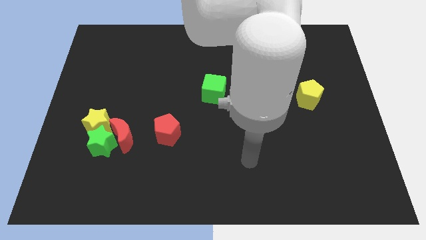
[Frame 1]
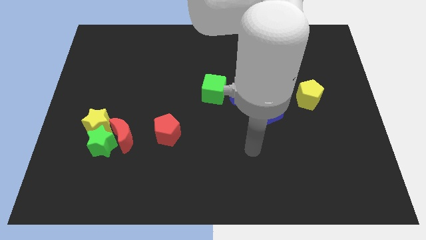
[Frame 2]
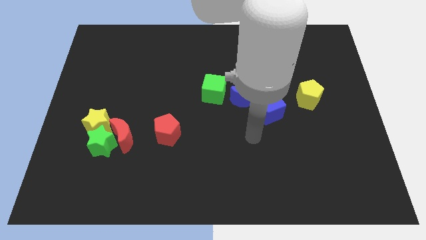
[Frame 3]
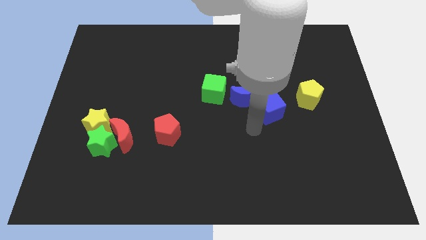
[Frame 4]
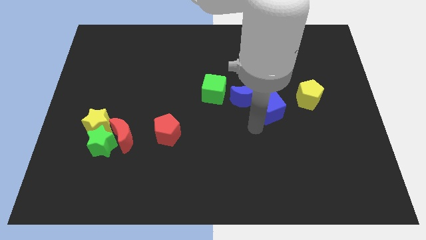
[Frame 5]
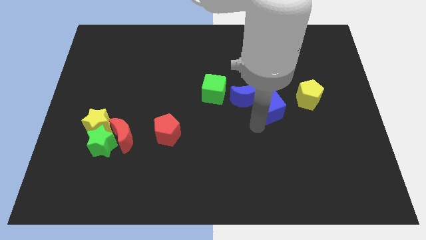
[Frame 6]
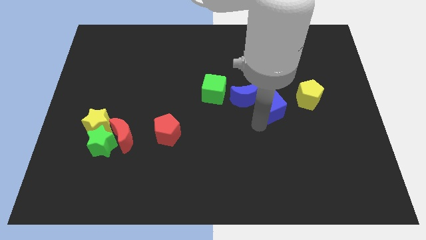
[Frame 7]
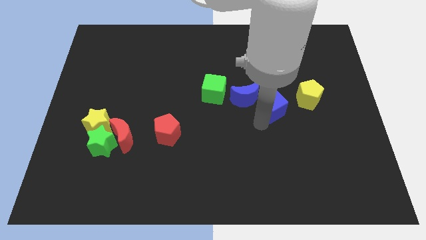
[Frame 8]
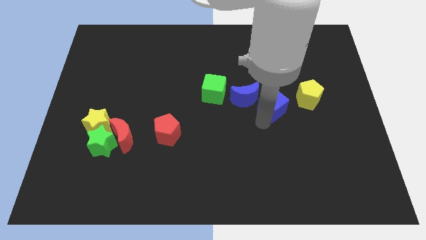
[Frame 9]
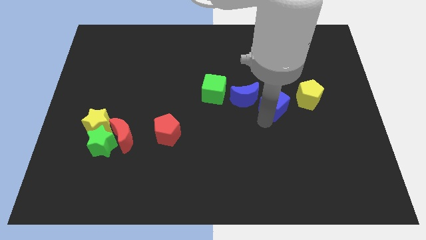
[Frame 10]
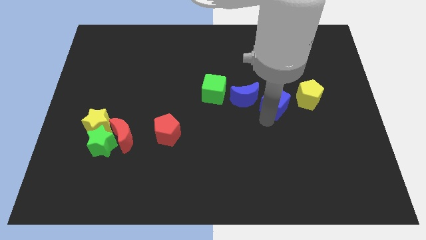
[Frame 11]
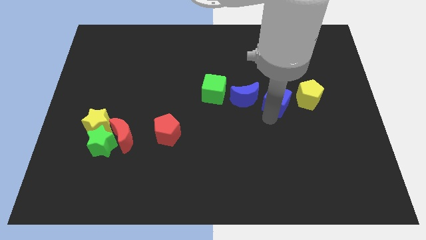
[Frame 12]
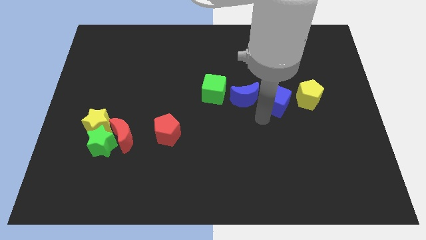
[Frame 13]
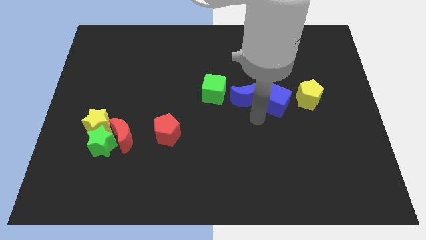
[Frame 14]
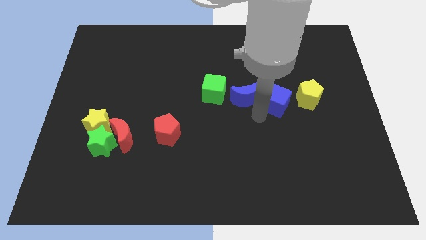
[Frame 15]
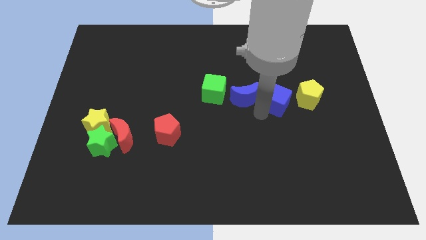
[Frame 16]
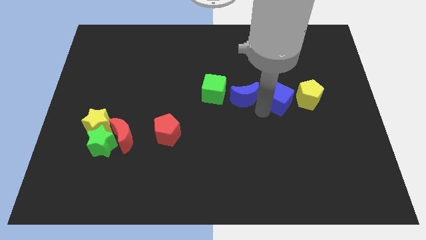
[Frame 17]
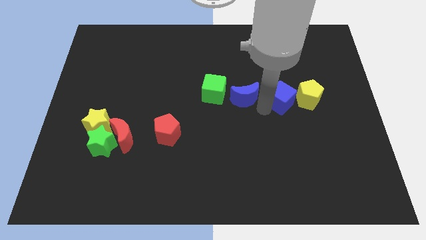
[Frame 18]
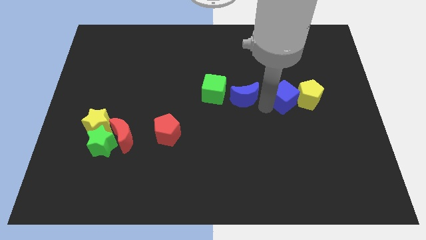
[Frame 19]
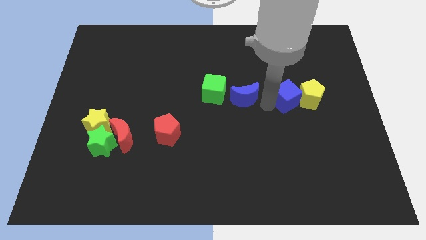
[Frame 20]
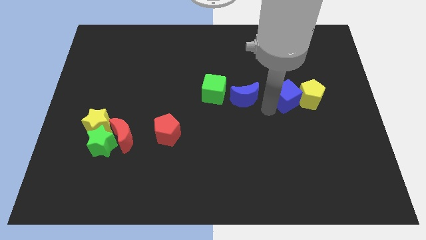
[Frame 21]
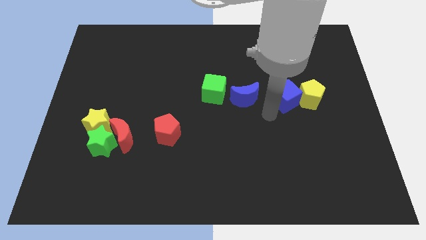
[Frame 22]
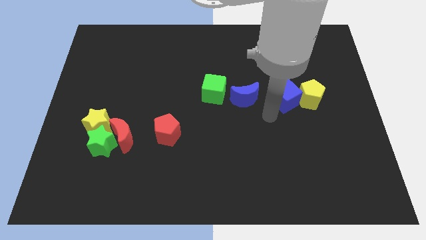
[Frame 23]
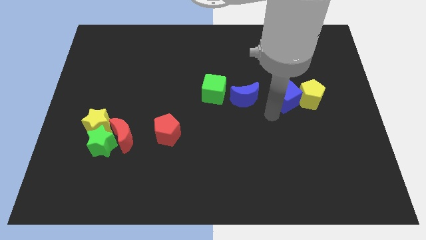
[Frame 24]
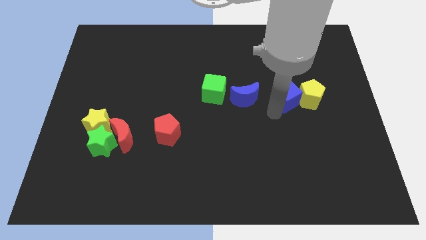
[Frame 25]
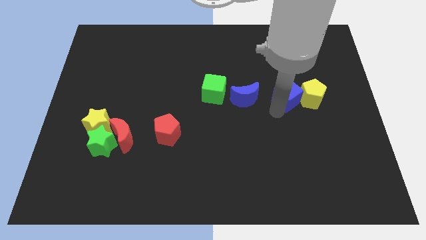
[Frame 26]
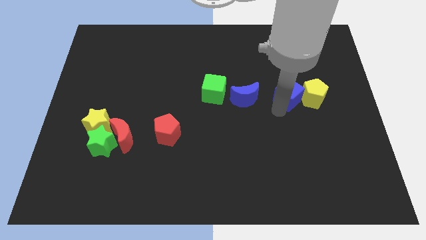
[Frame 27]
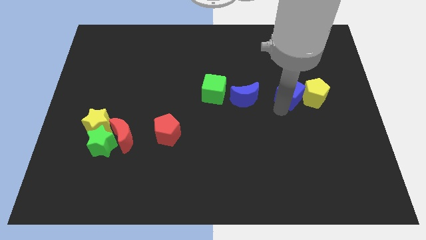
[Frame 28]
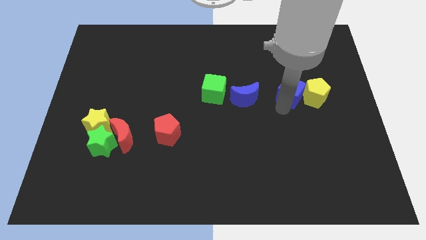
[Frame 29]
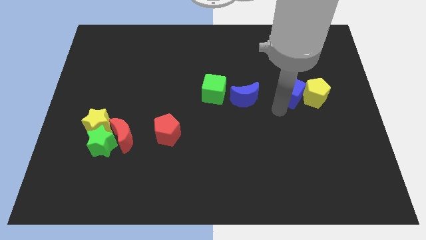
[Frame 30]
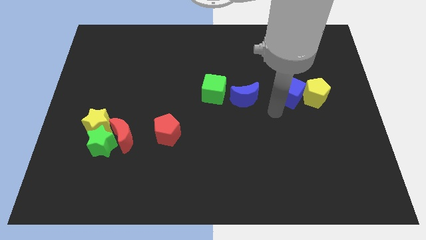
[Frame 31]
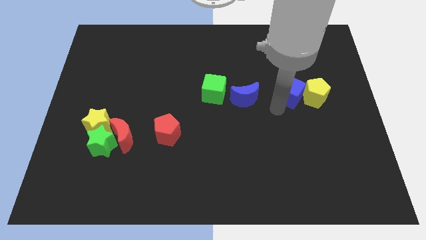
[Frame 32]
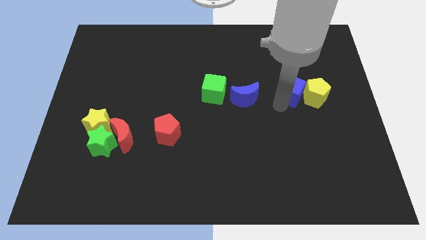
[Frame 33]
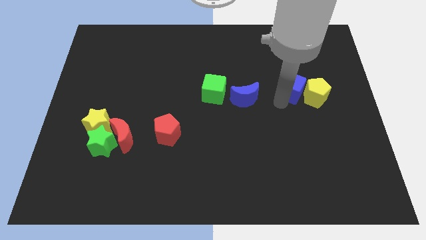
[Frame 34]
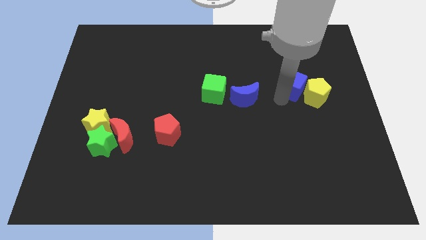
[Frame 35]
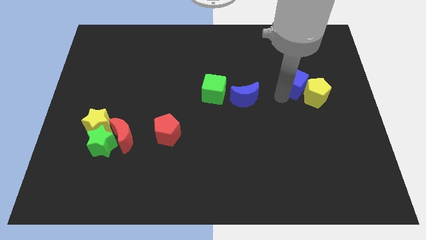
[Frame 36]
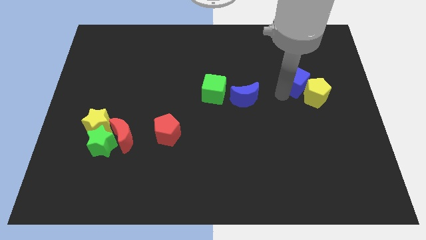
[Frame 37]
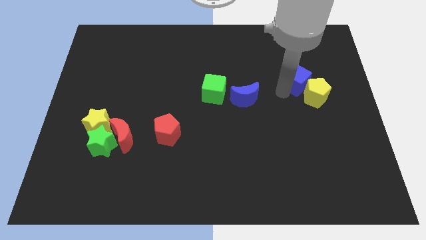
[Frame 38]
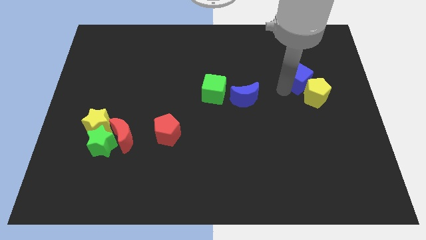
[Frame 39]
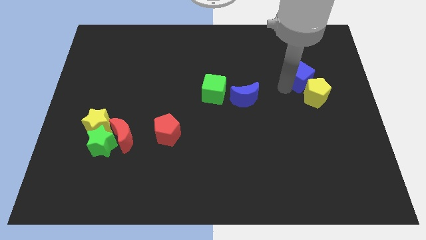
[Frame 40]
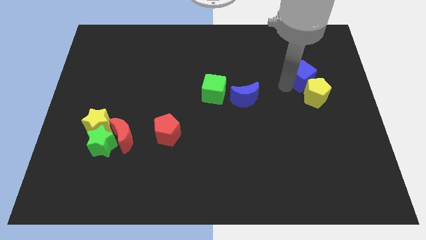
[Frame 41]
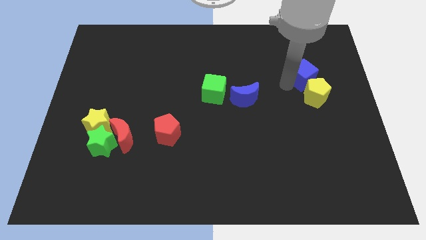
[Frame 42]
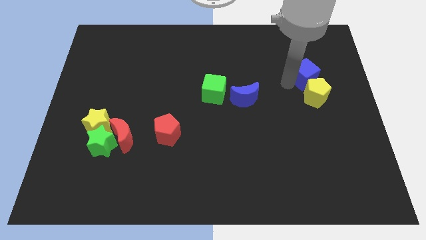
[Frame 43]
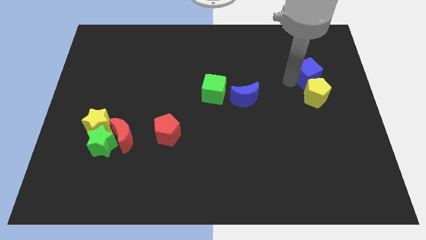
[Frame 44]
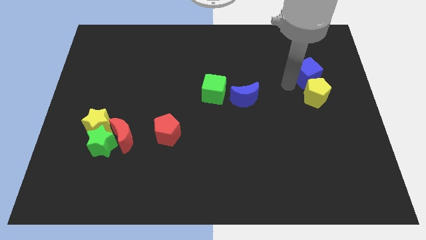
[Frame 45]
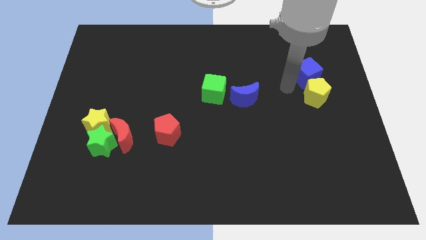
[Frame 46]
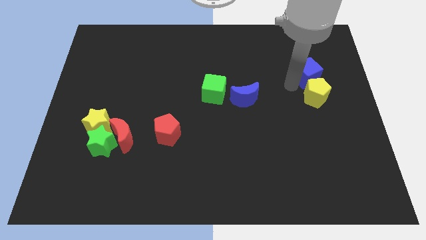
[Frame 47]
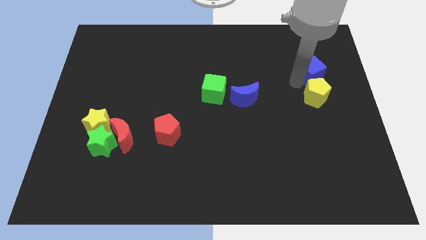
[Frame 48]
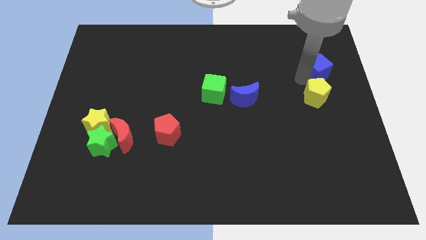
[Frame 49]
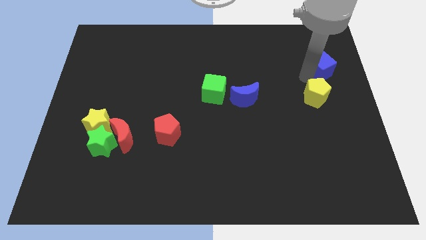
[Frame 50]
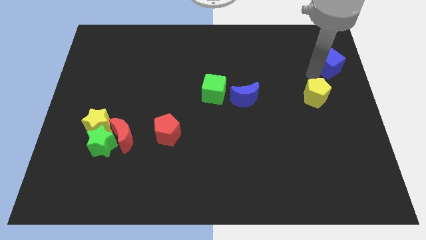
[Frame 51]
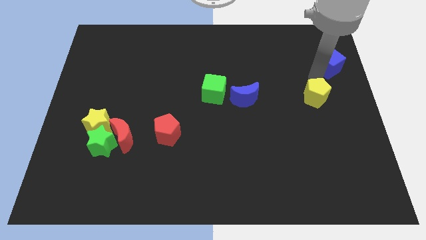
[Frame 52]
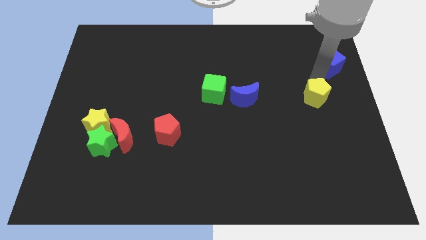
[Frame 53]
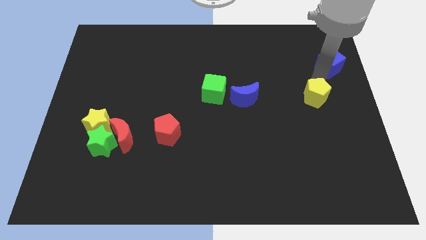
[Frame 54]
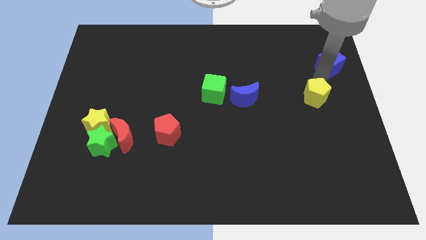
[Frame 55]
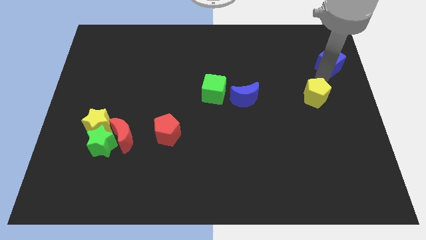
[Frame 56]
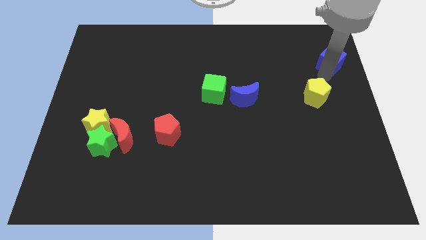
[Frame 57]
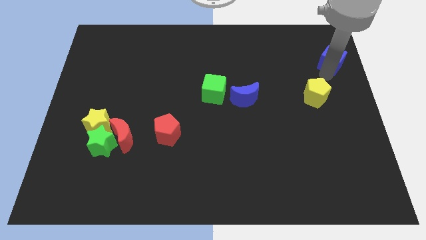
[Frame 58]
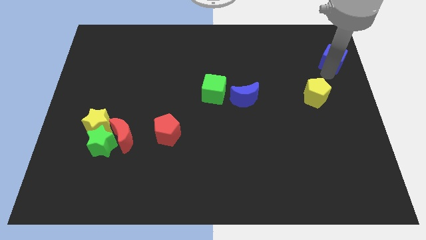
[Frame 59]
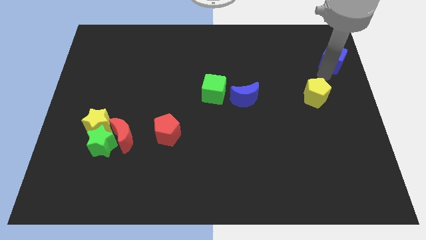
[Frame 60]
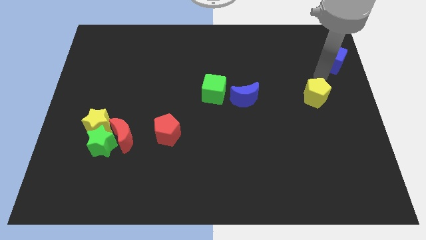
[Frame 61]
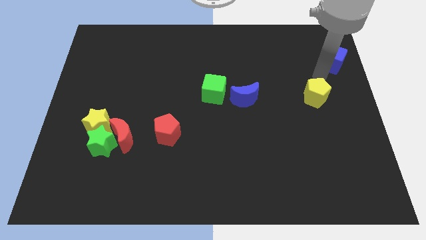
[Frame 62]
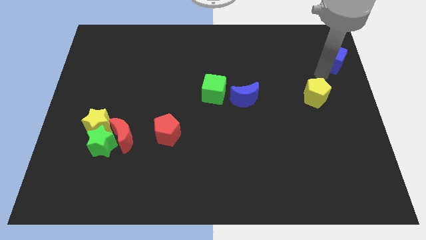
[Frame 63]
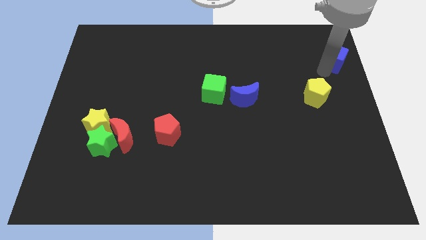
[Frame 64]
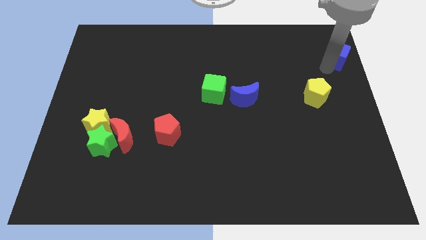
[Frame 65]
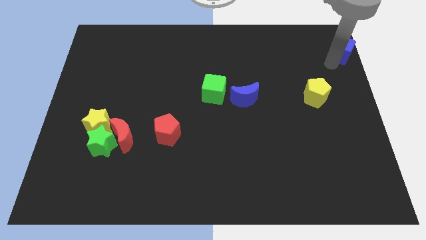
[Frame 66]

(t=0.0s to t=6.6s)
push the blue cube to the top right of the board
